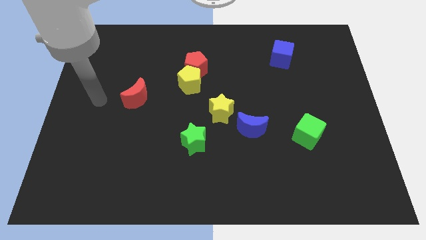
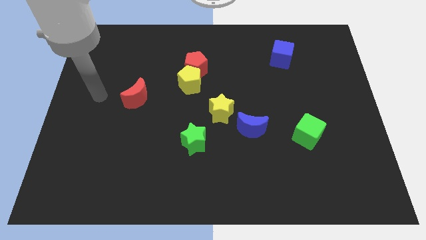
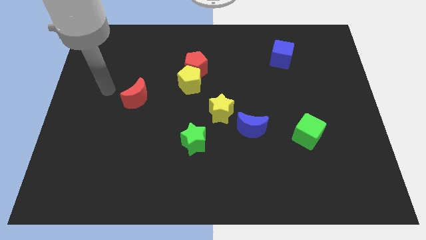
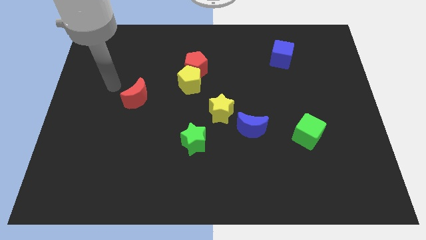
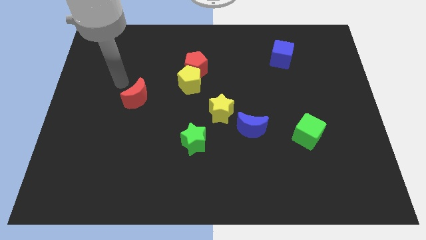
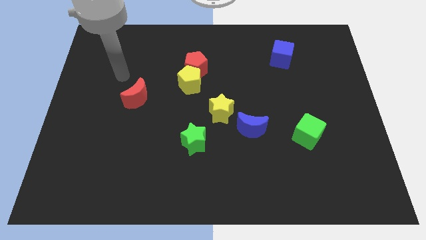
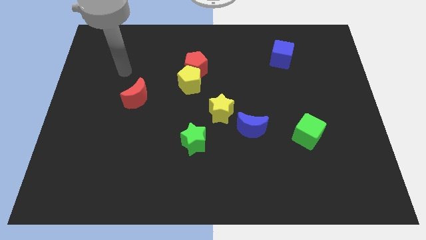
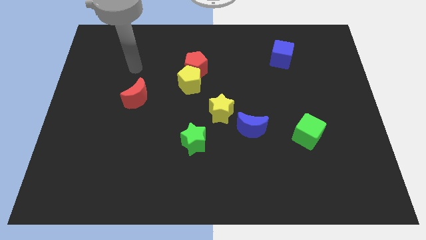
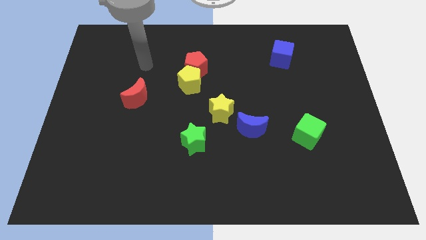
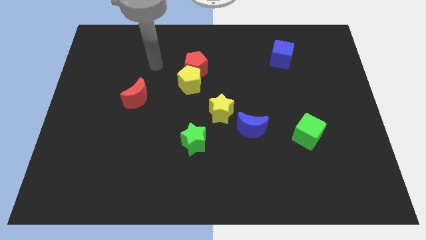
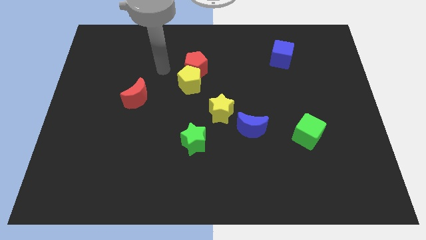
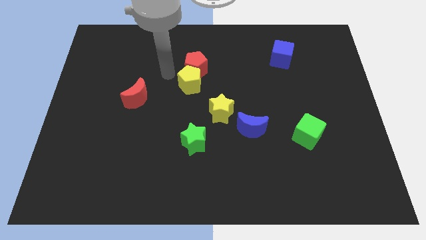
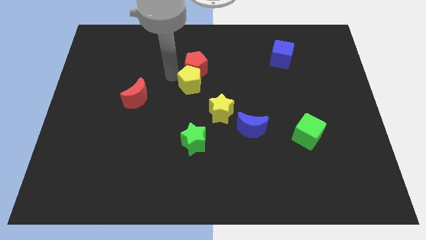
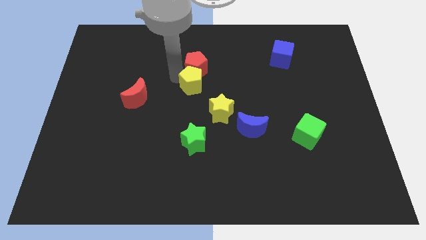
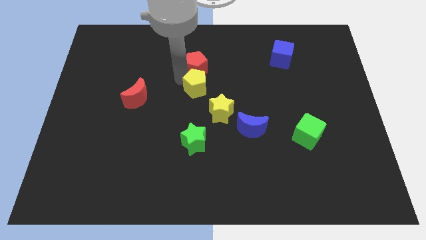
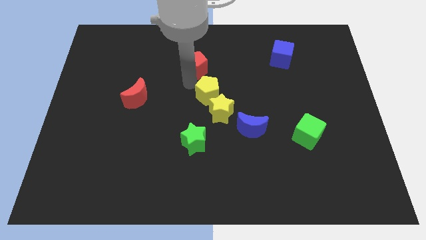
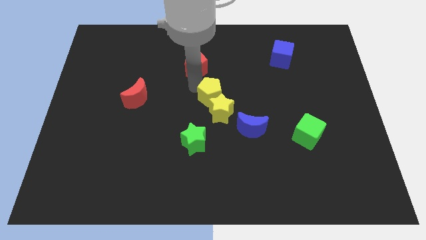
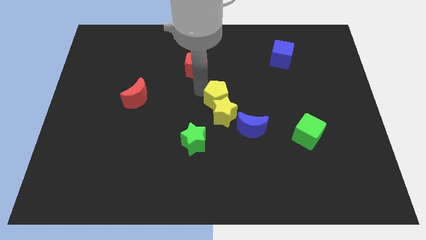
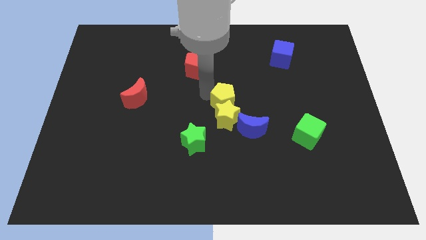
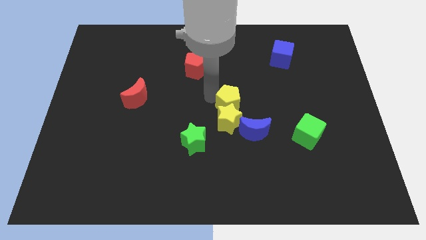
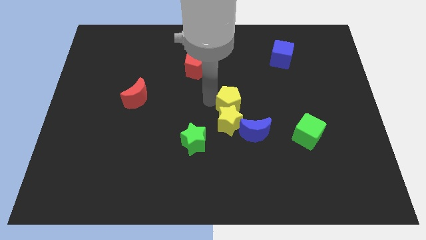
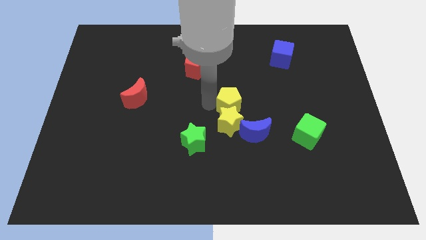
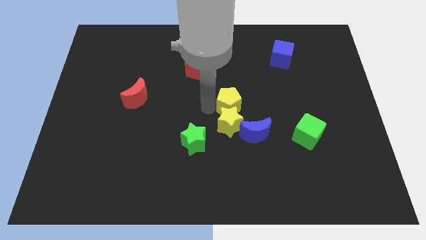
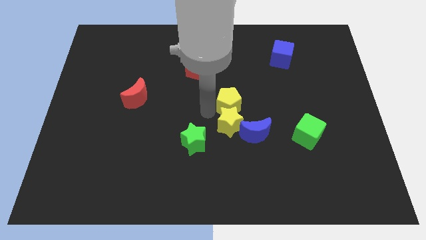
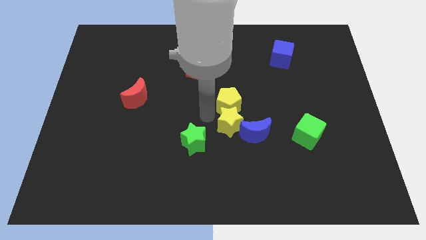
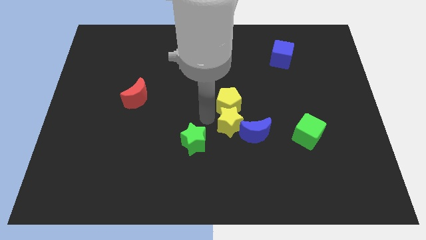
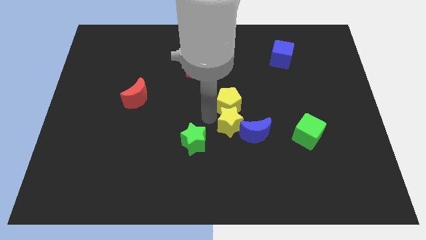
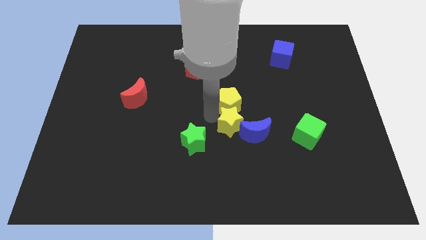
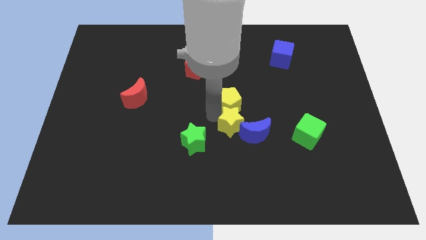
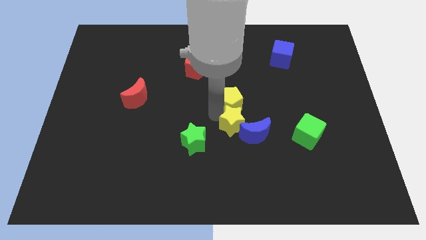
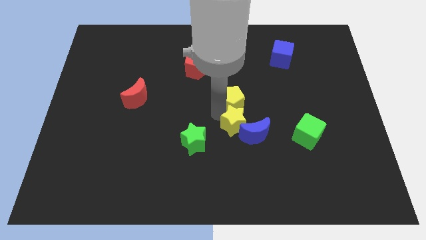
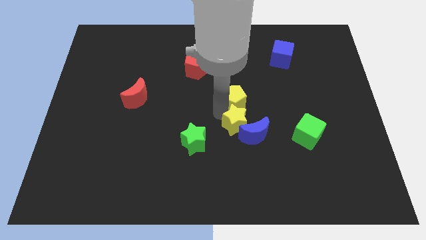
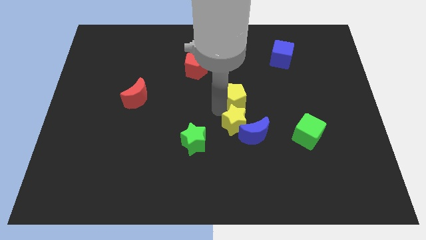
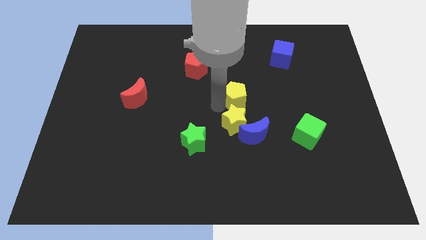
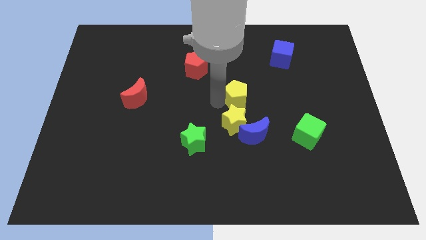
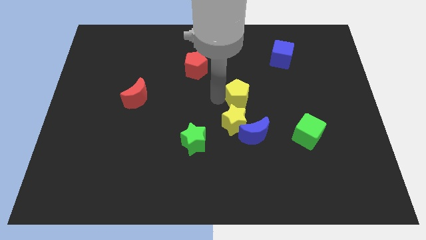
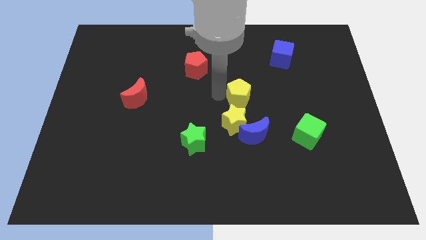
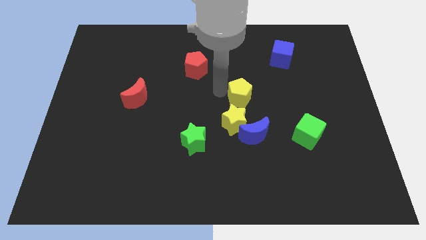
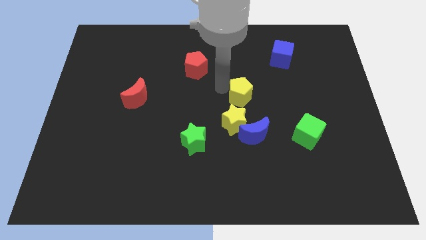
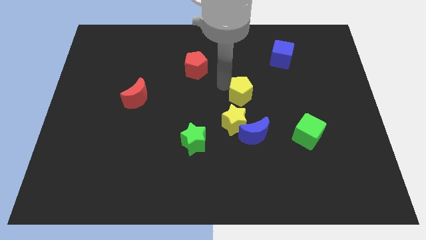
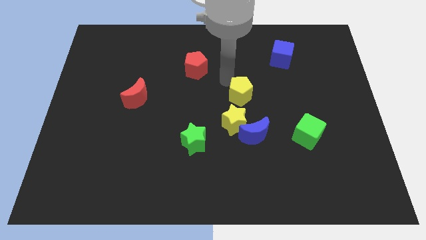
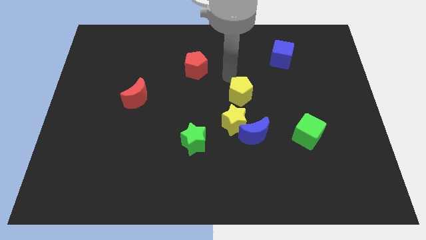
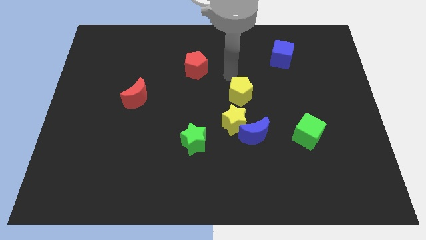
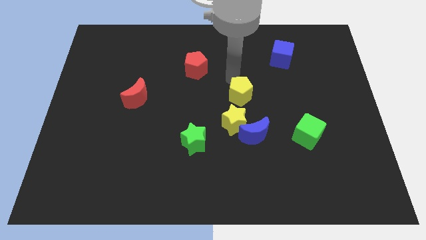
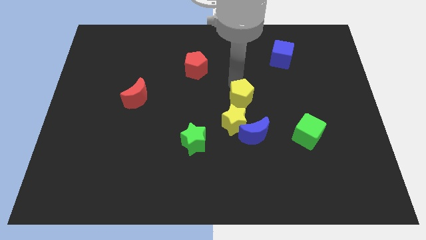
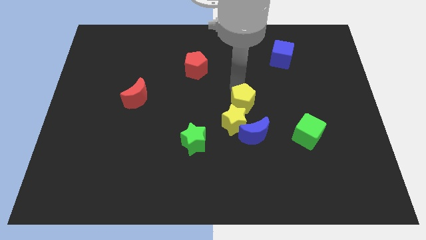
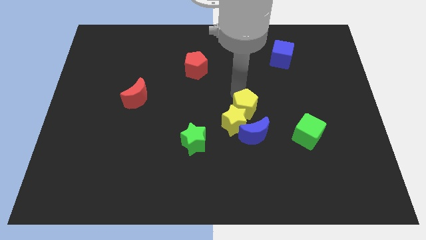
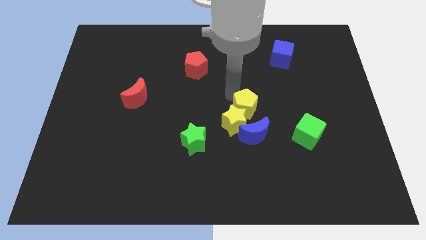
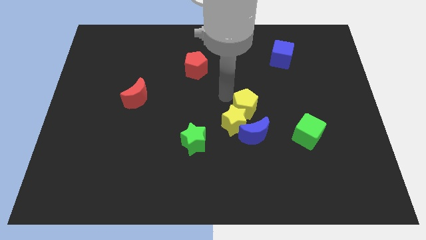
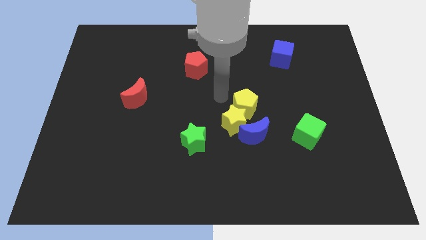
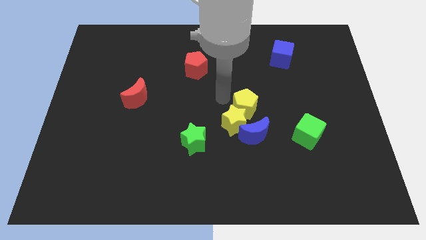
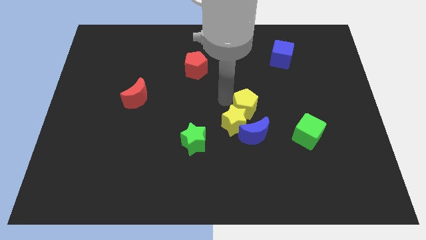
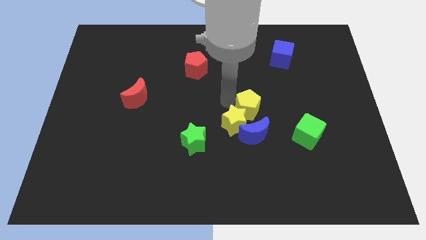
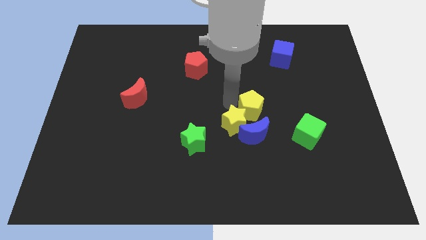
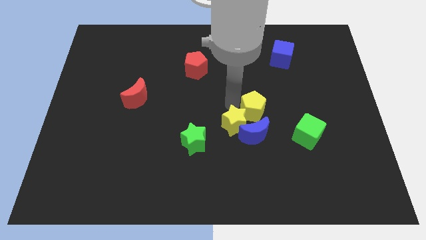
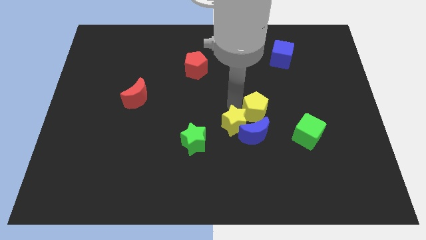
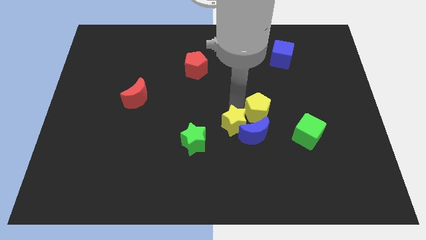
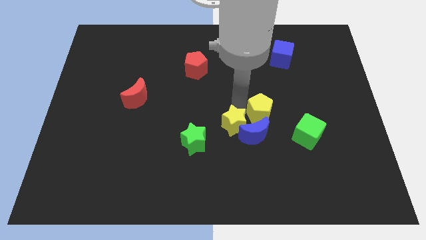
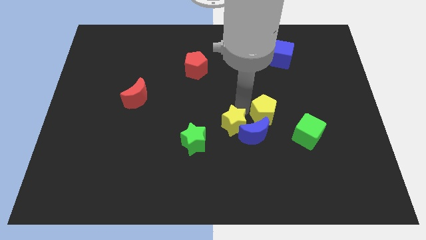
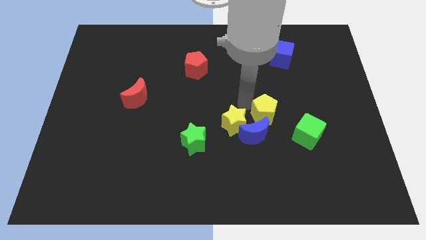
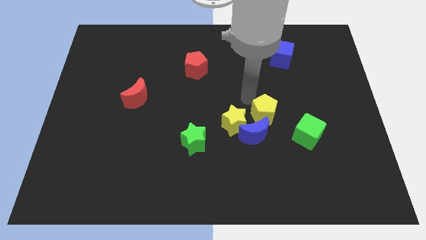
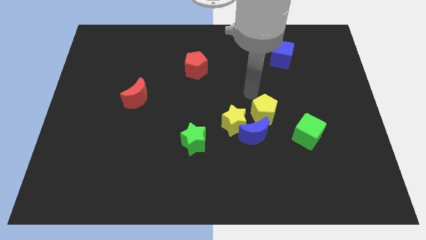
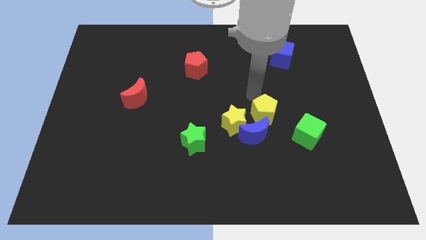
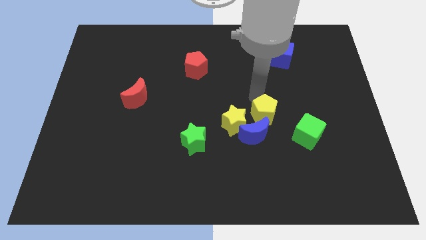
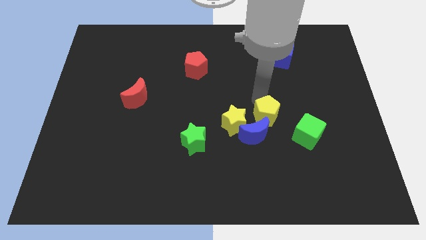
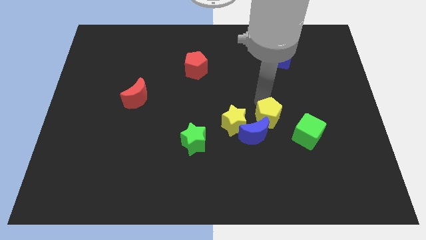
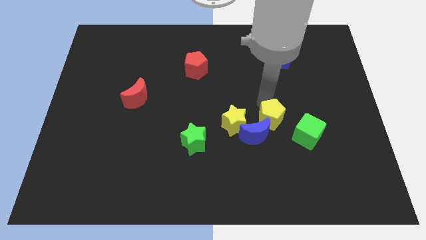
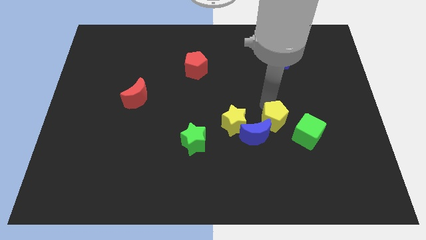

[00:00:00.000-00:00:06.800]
move the yellow pentagon downwards and to the right diagonally

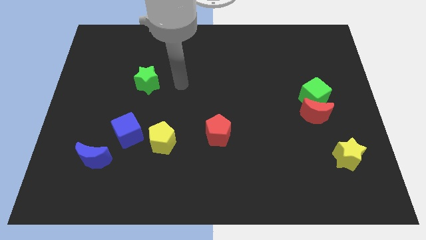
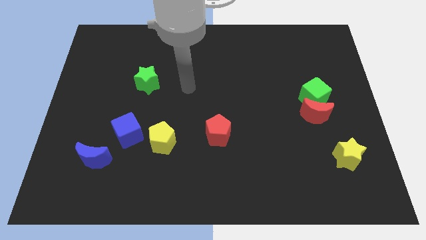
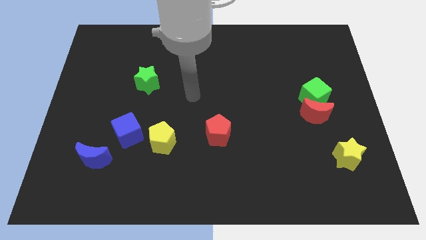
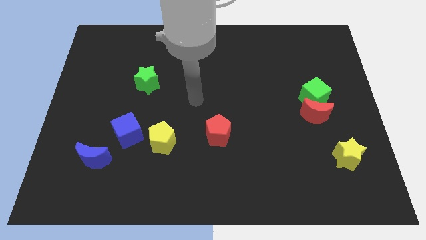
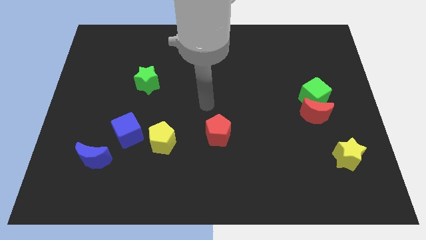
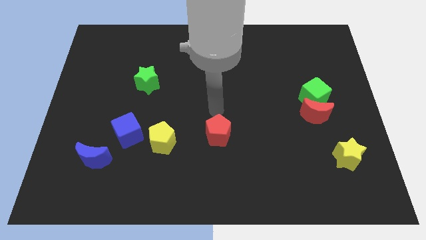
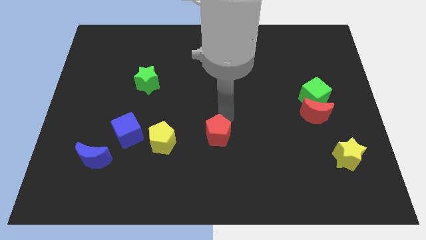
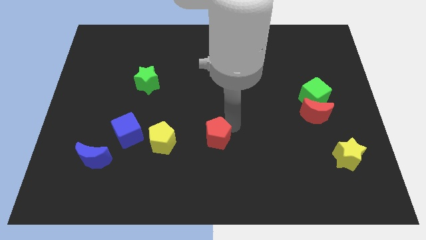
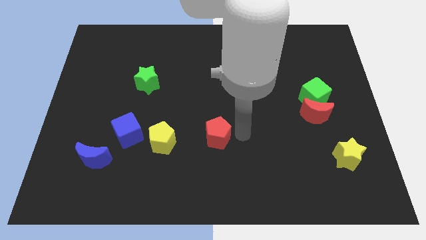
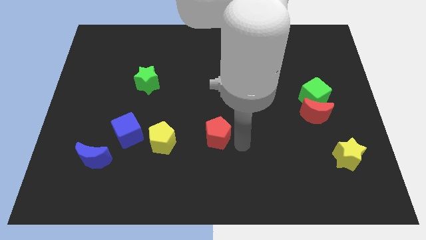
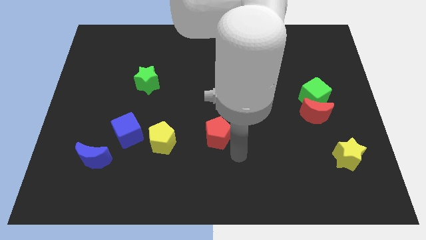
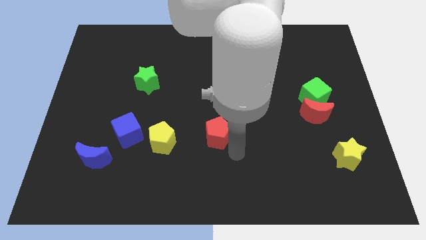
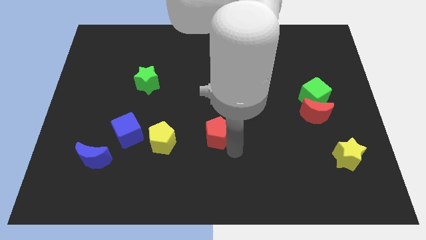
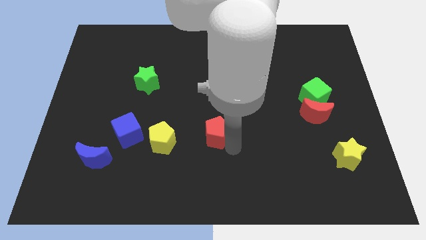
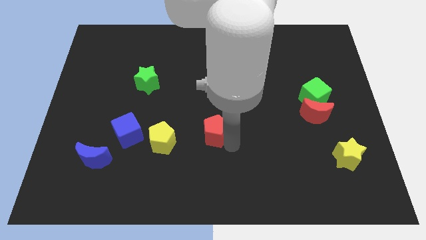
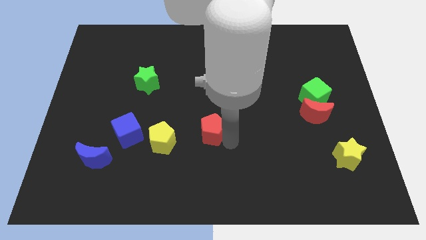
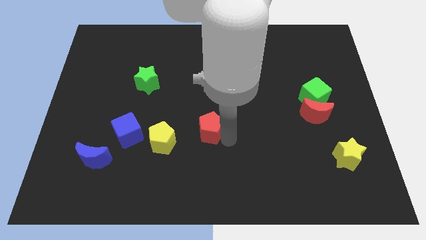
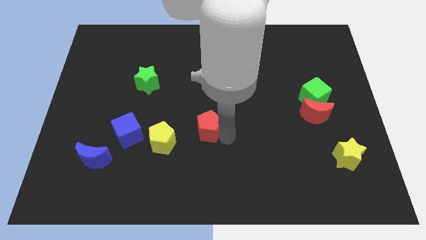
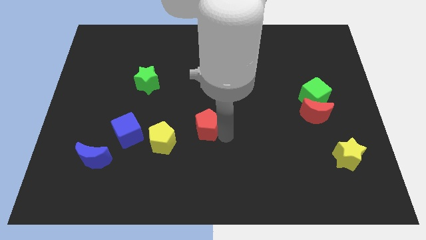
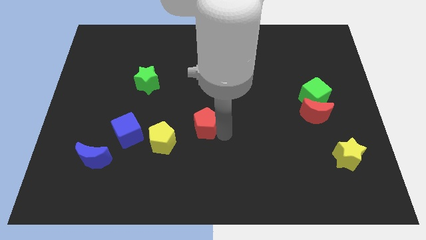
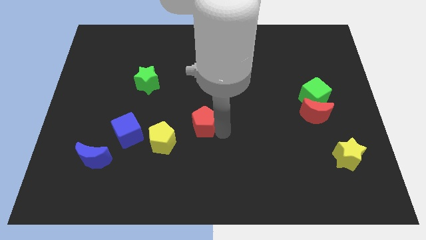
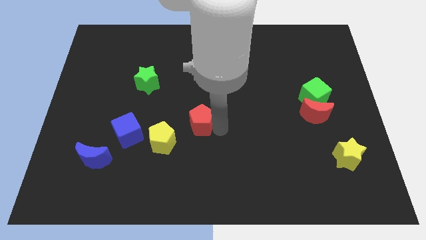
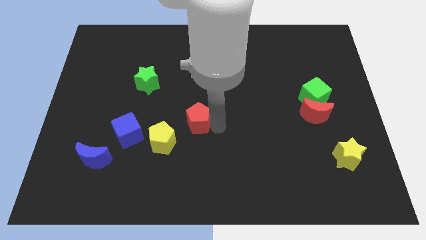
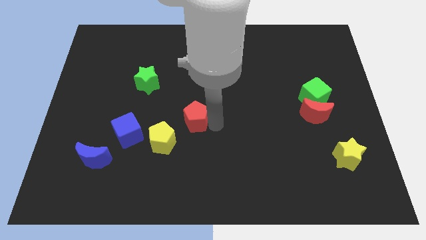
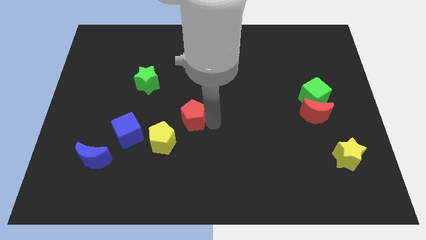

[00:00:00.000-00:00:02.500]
move the red pentagon slightly up and left
